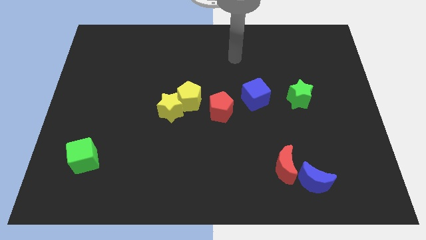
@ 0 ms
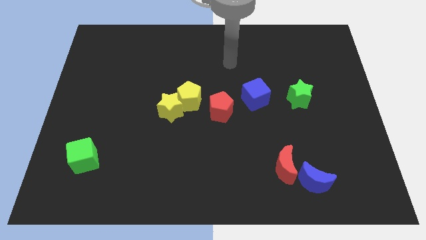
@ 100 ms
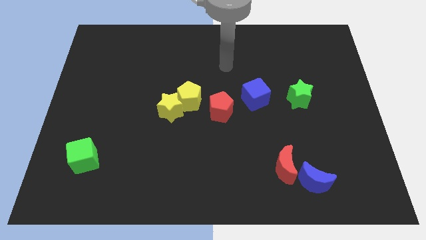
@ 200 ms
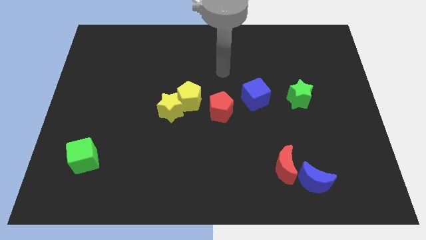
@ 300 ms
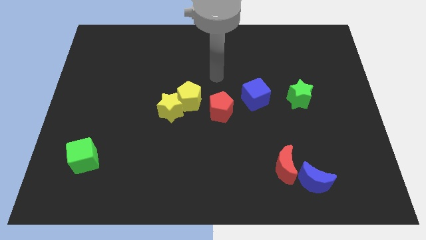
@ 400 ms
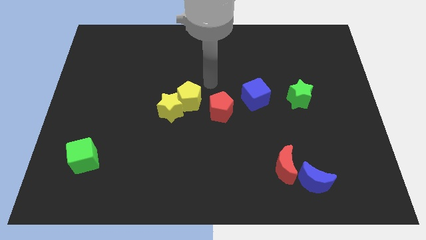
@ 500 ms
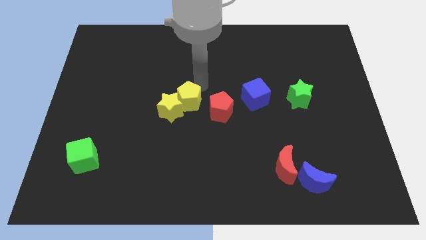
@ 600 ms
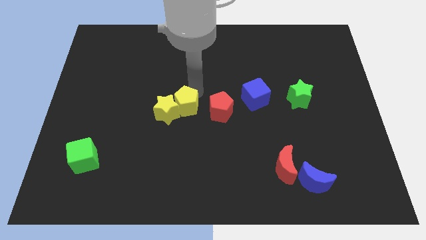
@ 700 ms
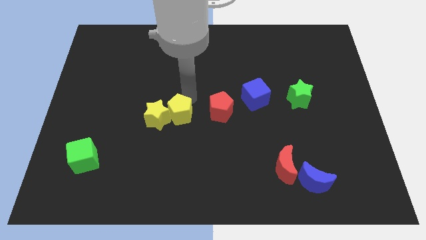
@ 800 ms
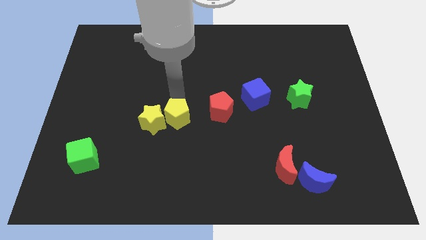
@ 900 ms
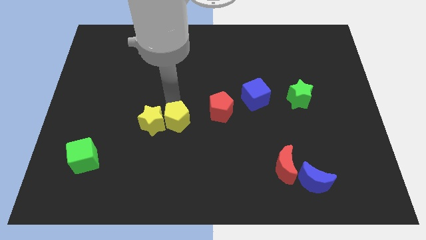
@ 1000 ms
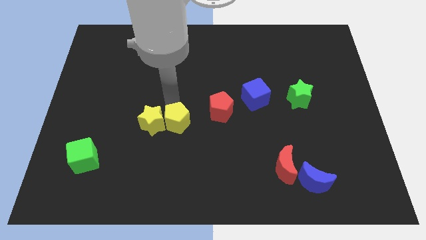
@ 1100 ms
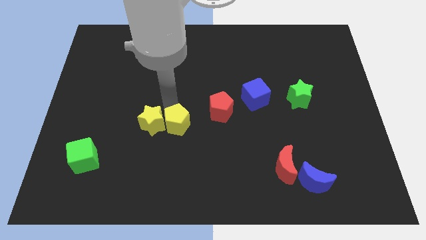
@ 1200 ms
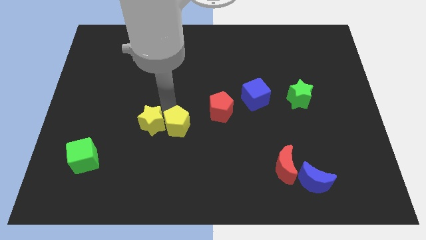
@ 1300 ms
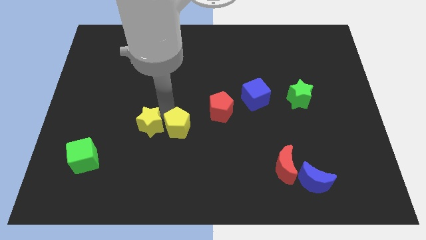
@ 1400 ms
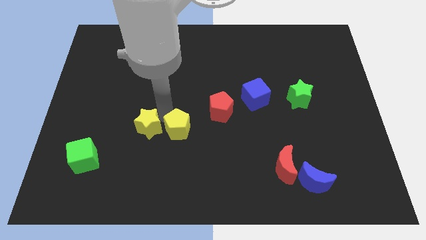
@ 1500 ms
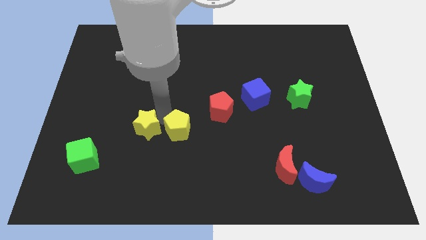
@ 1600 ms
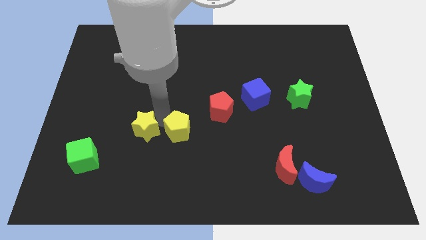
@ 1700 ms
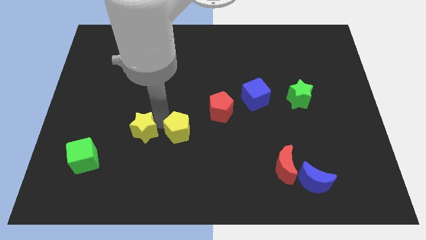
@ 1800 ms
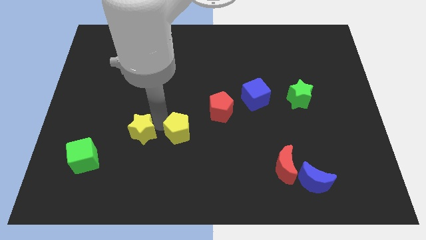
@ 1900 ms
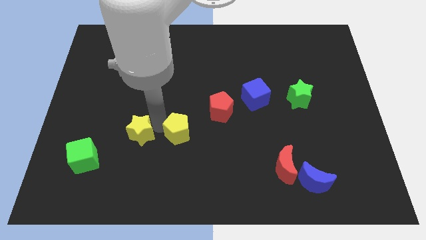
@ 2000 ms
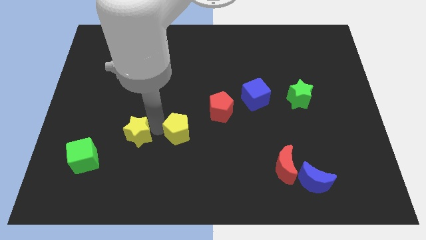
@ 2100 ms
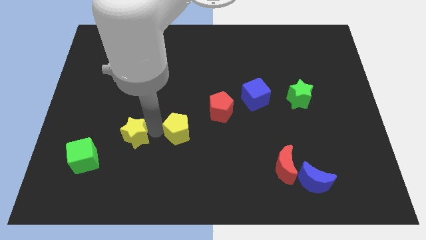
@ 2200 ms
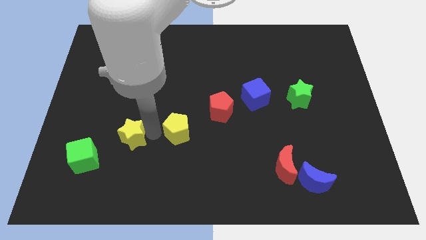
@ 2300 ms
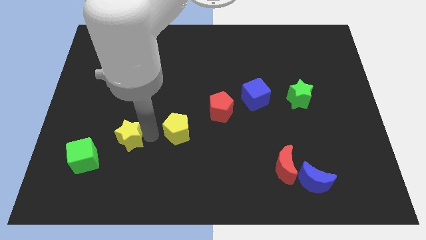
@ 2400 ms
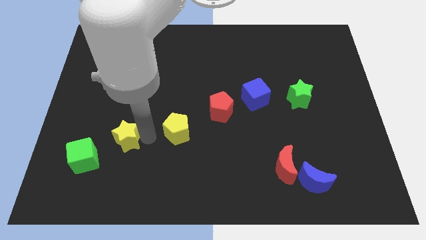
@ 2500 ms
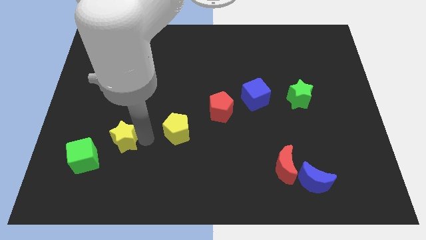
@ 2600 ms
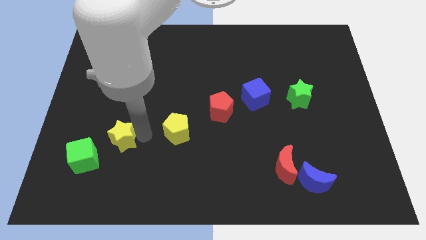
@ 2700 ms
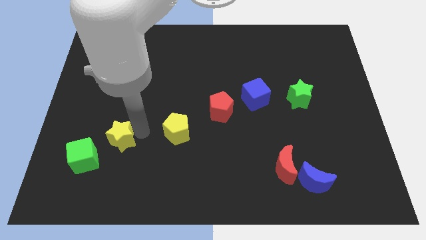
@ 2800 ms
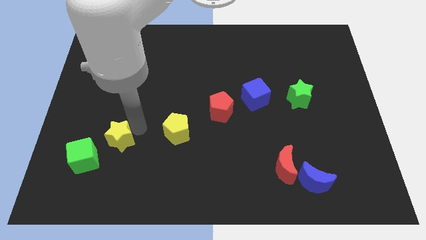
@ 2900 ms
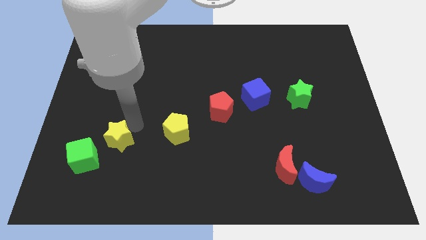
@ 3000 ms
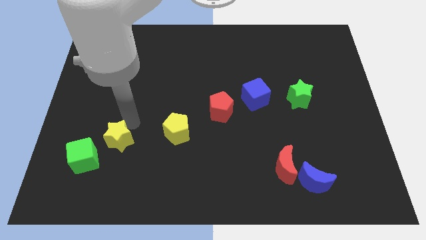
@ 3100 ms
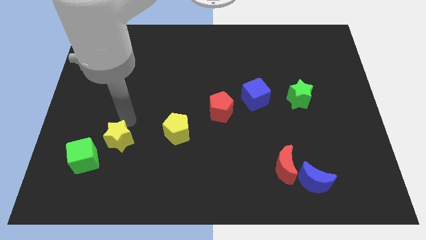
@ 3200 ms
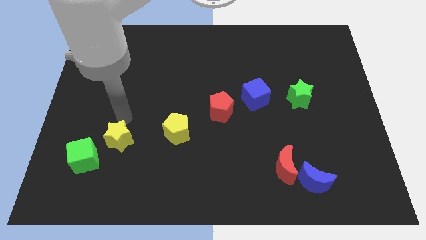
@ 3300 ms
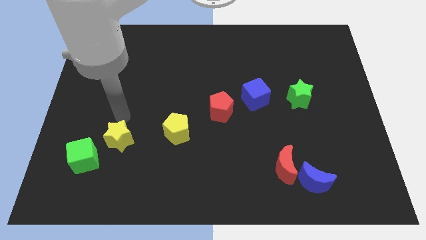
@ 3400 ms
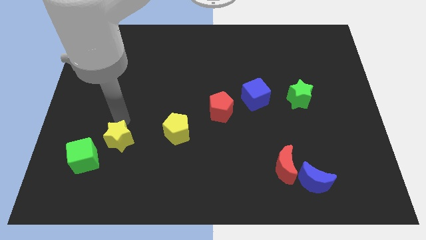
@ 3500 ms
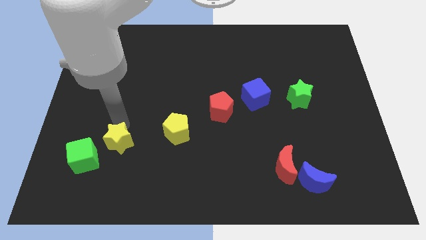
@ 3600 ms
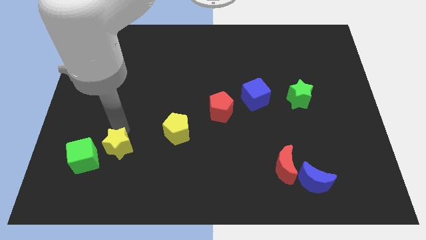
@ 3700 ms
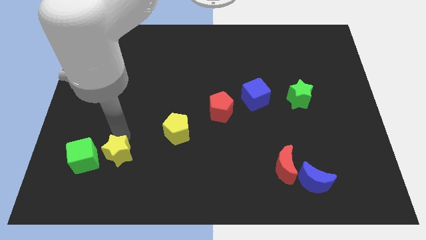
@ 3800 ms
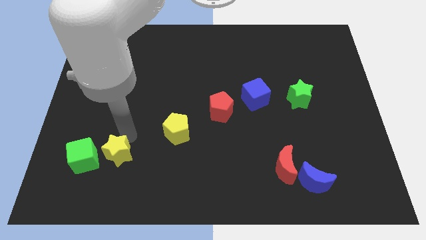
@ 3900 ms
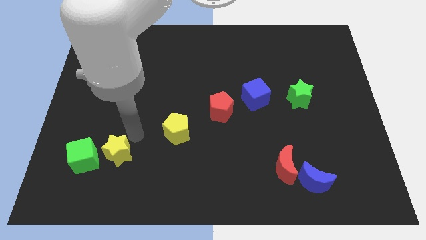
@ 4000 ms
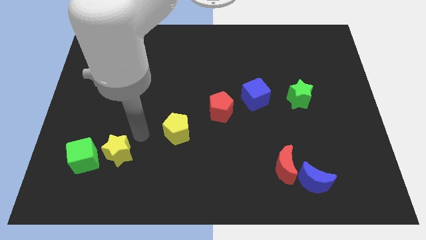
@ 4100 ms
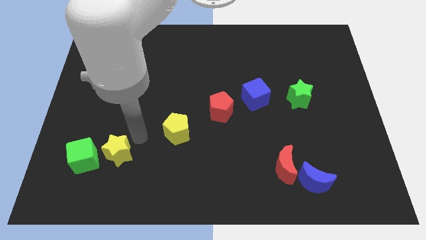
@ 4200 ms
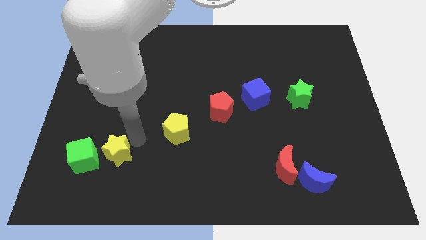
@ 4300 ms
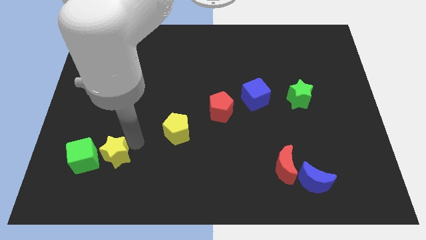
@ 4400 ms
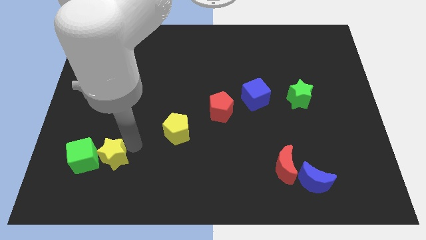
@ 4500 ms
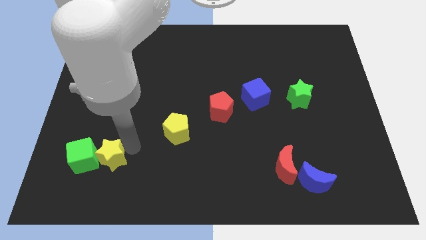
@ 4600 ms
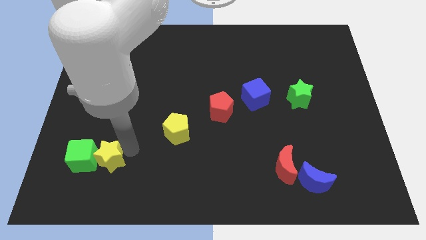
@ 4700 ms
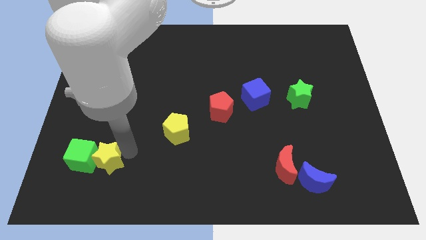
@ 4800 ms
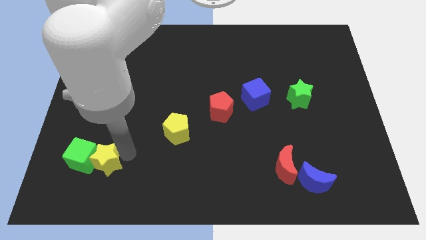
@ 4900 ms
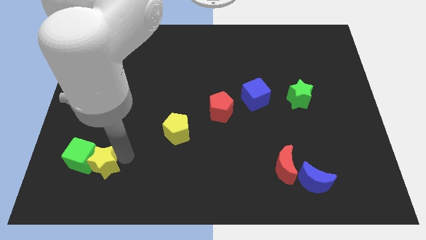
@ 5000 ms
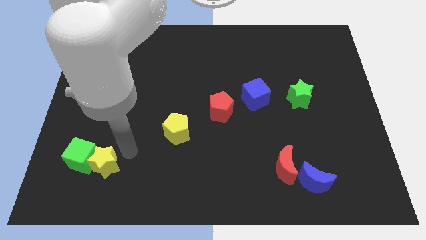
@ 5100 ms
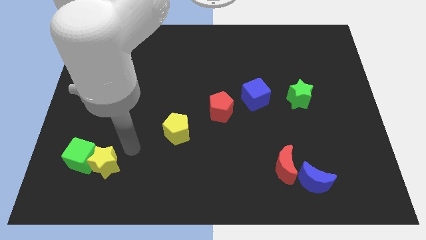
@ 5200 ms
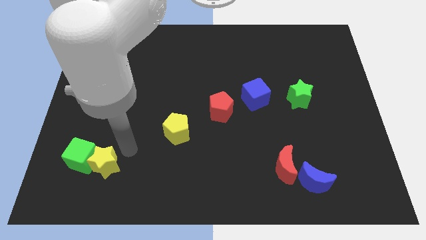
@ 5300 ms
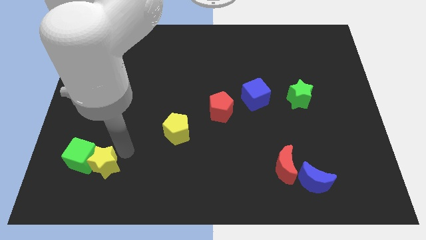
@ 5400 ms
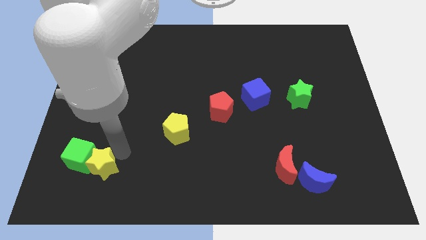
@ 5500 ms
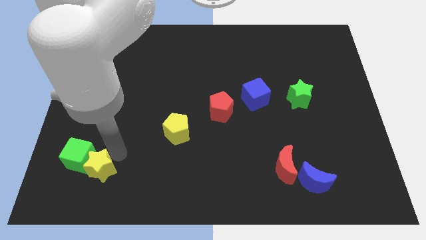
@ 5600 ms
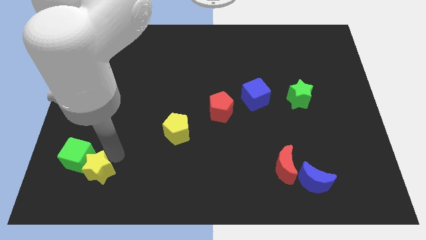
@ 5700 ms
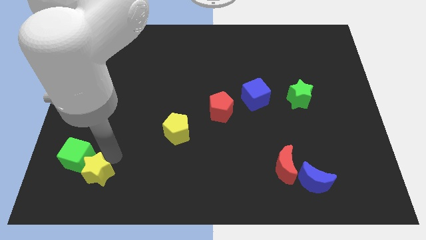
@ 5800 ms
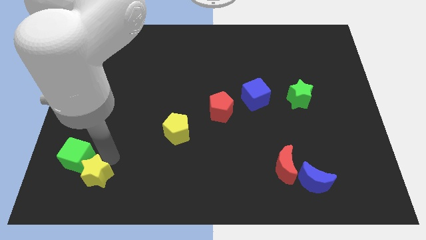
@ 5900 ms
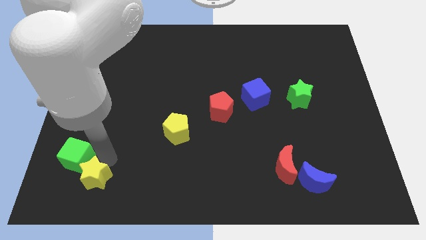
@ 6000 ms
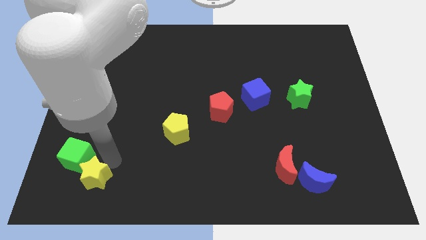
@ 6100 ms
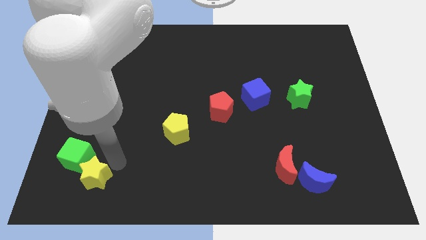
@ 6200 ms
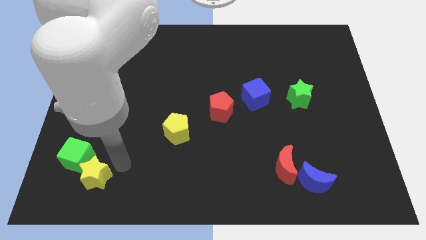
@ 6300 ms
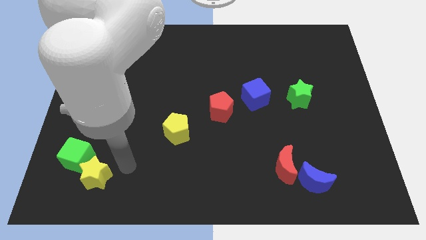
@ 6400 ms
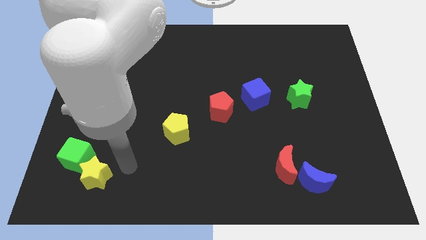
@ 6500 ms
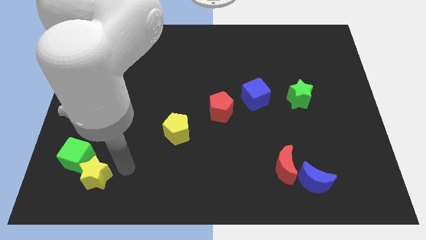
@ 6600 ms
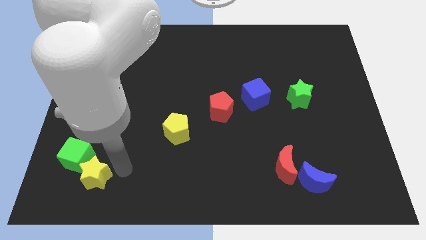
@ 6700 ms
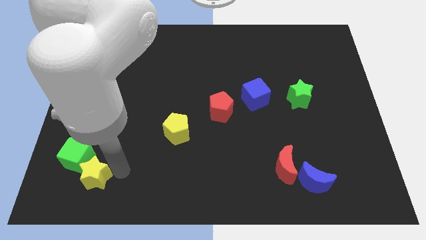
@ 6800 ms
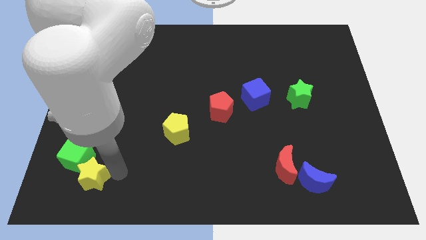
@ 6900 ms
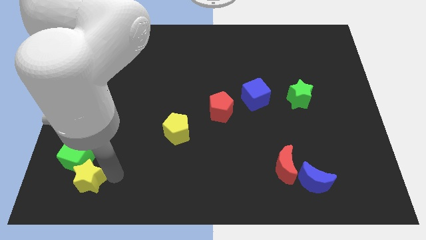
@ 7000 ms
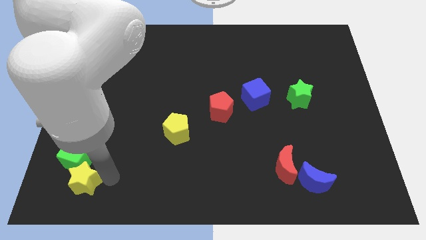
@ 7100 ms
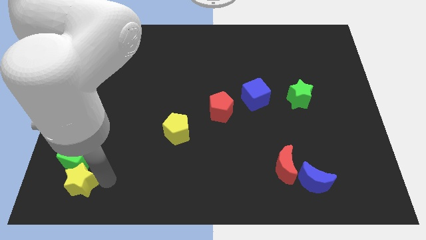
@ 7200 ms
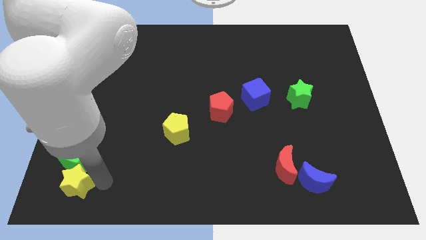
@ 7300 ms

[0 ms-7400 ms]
put the yellow star to the lower left corner

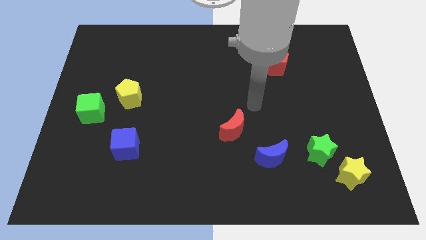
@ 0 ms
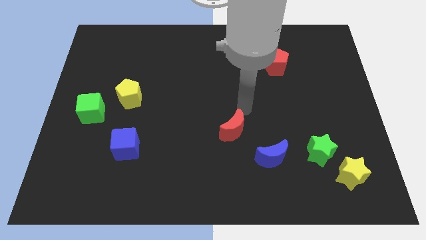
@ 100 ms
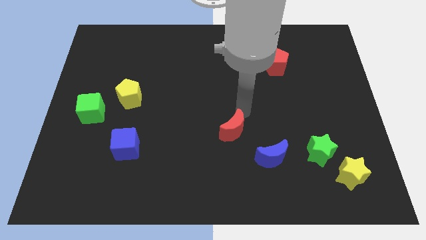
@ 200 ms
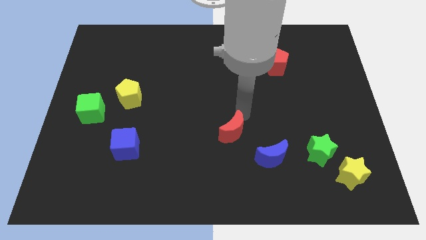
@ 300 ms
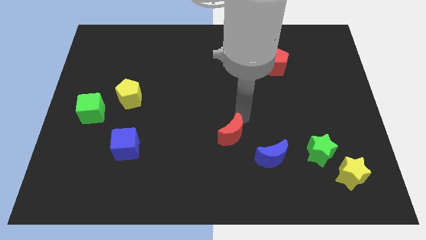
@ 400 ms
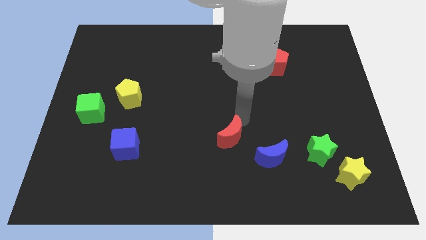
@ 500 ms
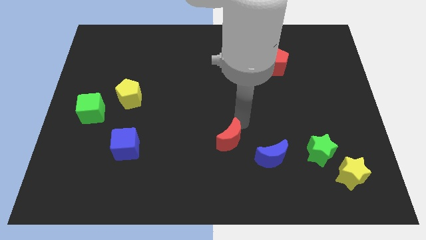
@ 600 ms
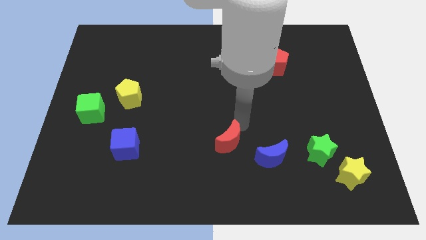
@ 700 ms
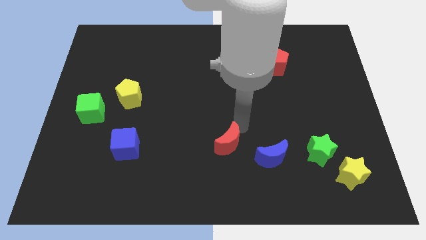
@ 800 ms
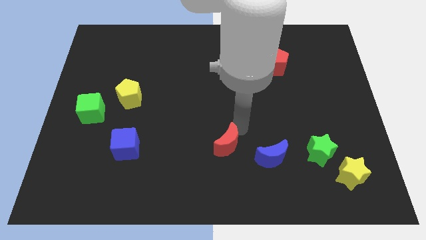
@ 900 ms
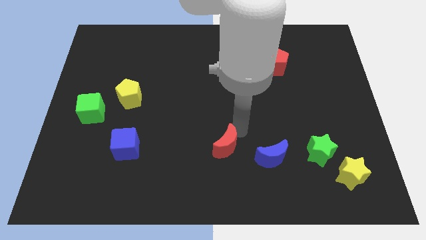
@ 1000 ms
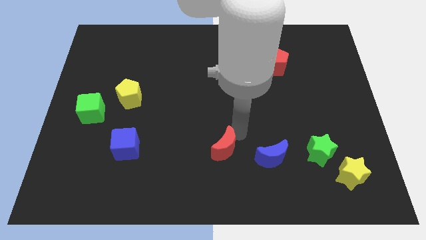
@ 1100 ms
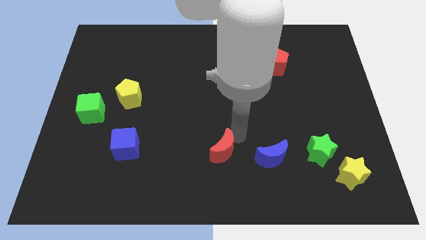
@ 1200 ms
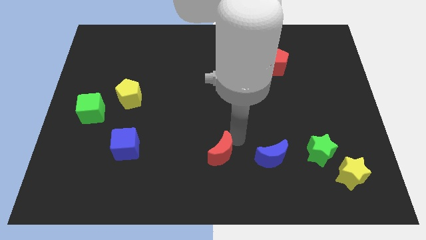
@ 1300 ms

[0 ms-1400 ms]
put the red moon to the bottom
